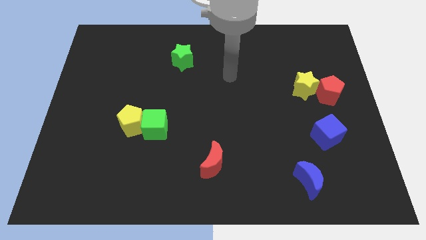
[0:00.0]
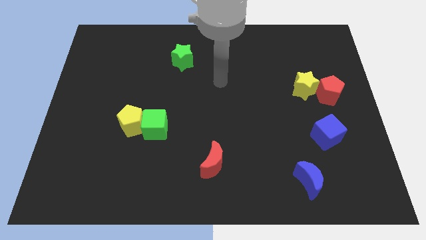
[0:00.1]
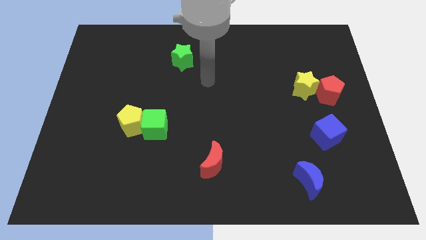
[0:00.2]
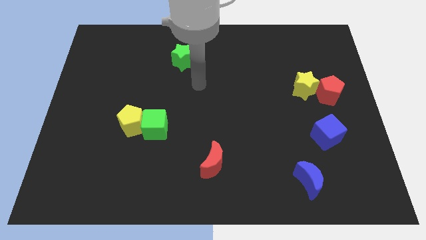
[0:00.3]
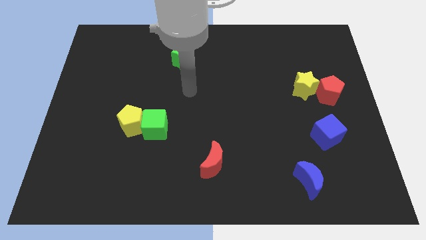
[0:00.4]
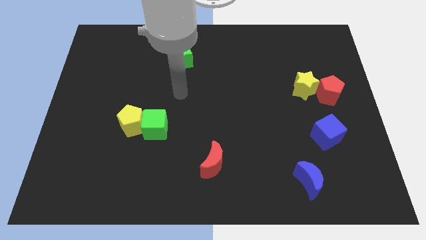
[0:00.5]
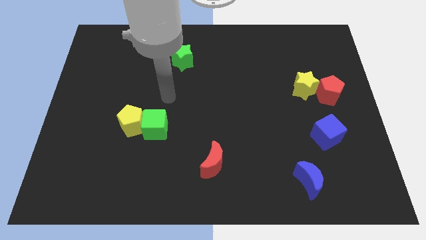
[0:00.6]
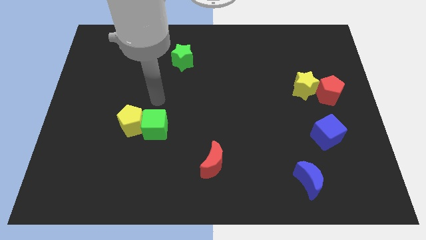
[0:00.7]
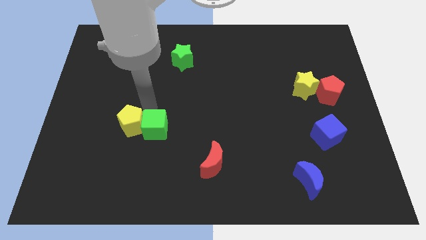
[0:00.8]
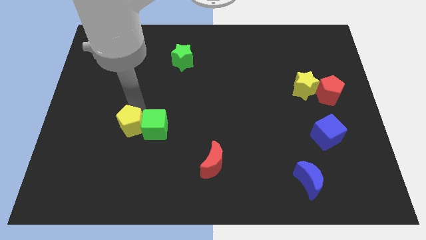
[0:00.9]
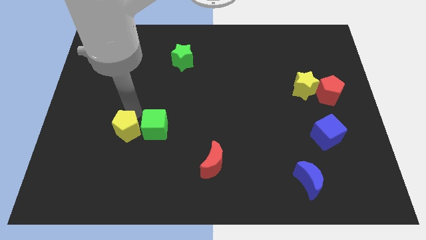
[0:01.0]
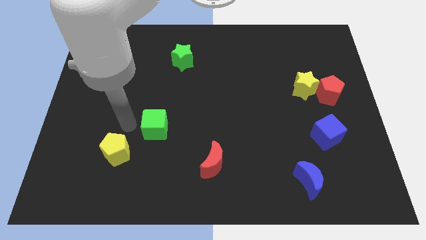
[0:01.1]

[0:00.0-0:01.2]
separate the green cube from the yellow pentagon

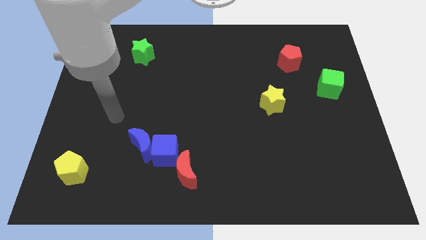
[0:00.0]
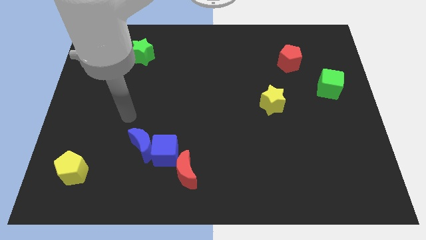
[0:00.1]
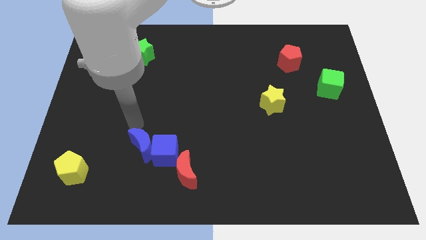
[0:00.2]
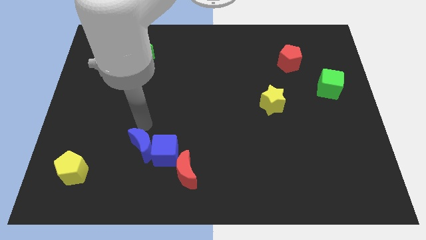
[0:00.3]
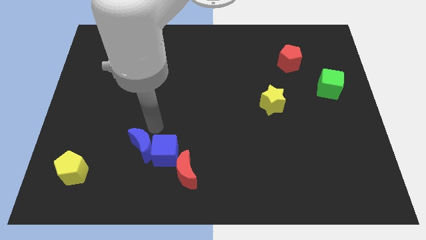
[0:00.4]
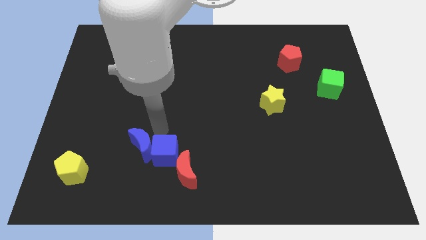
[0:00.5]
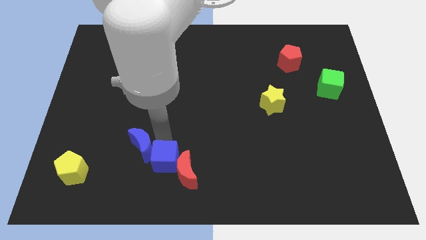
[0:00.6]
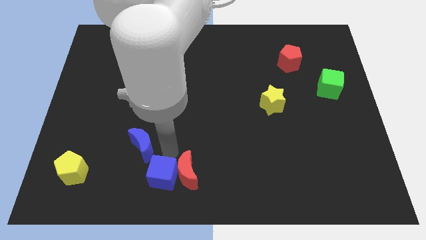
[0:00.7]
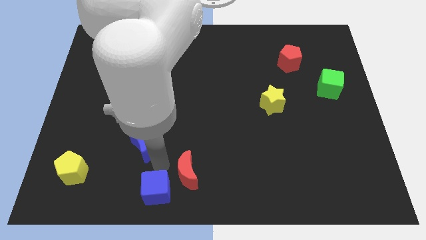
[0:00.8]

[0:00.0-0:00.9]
separate the blue moon from the blue cube

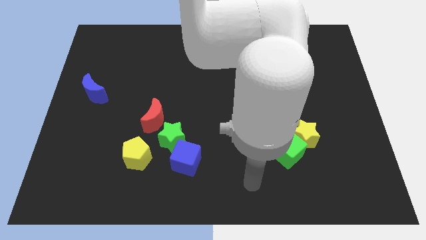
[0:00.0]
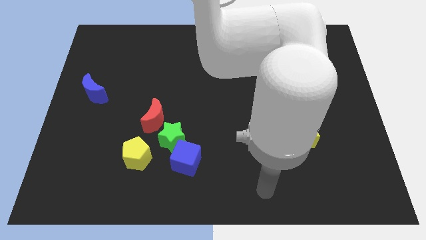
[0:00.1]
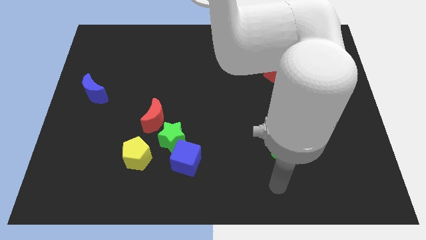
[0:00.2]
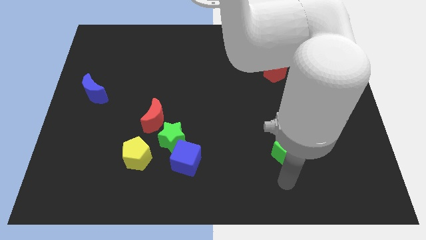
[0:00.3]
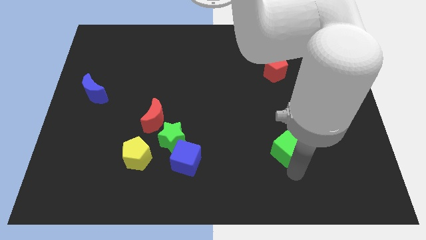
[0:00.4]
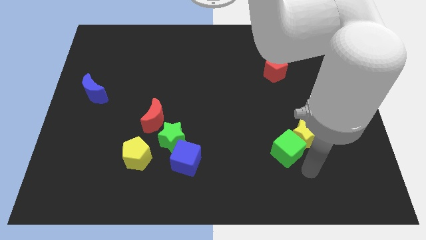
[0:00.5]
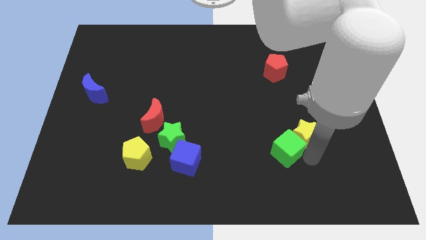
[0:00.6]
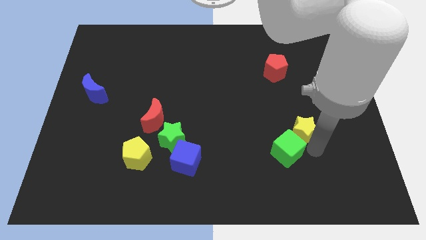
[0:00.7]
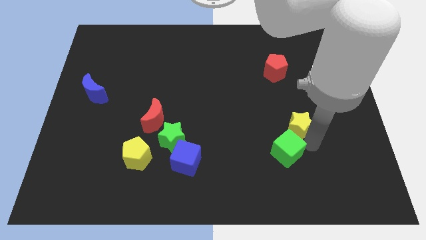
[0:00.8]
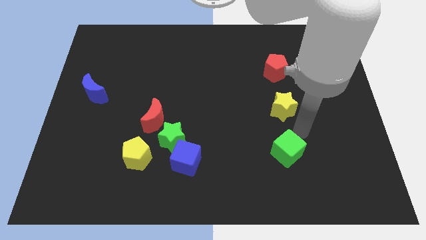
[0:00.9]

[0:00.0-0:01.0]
pull the green cube apart from the yellow star

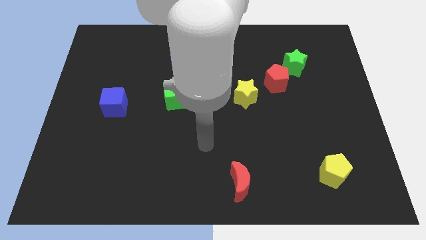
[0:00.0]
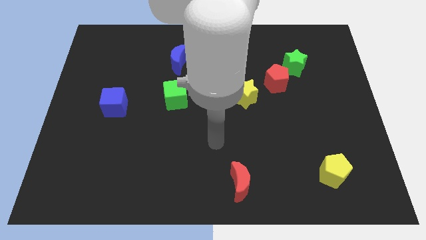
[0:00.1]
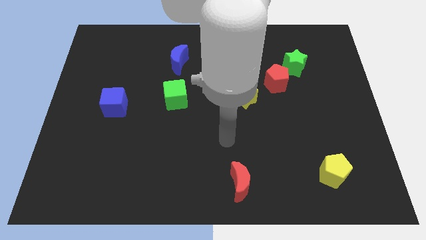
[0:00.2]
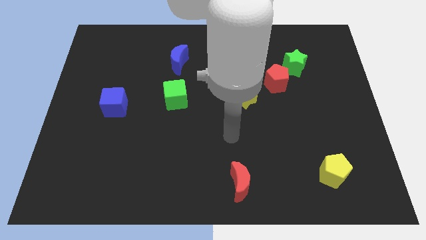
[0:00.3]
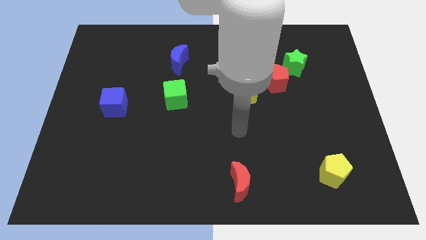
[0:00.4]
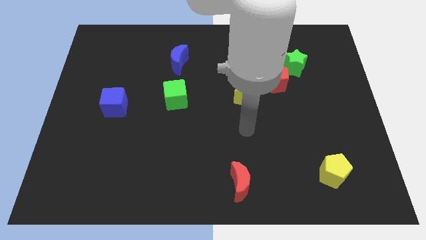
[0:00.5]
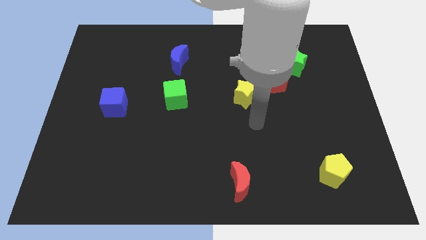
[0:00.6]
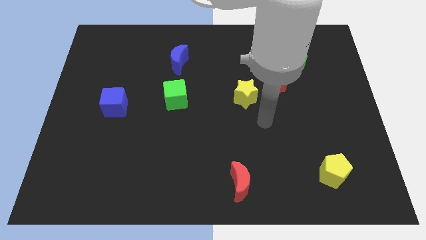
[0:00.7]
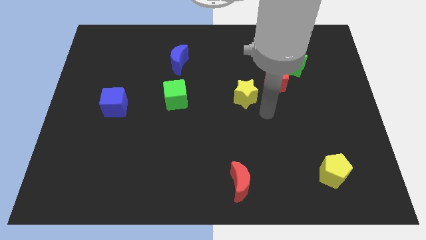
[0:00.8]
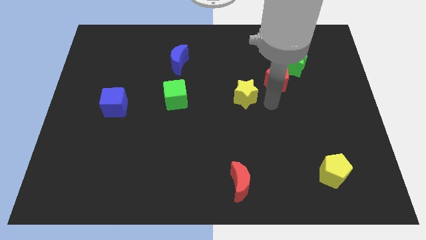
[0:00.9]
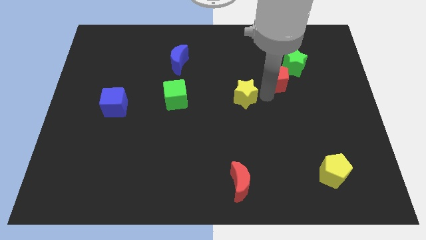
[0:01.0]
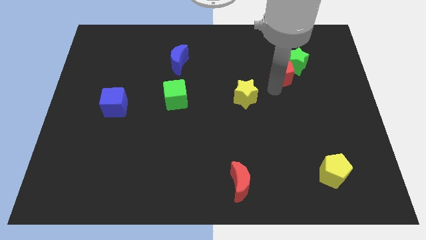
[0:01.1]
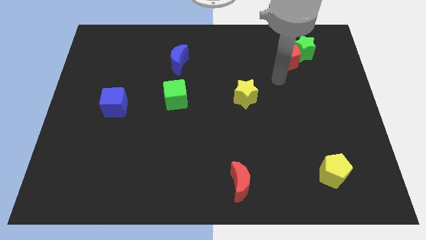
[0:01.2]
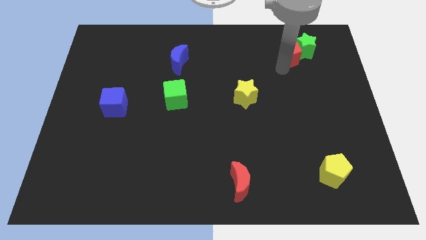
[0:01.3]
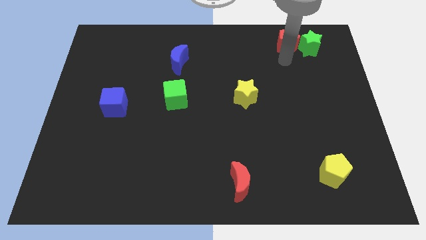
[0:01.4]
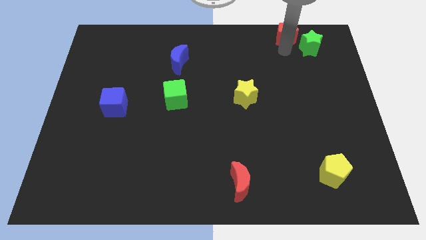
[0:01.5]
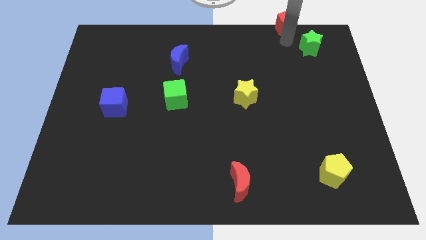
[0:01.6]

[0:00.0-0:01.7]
pull the green star apart from the red pentagon

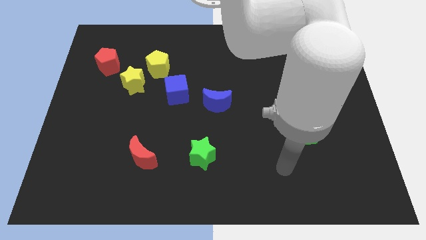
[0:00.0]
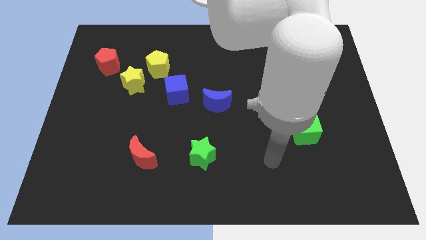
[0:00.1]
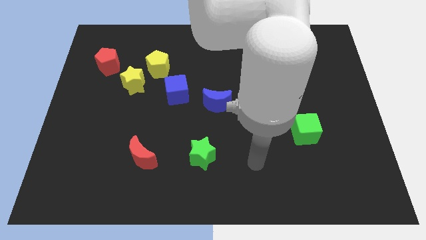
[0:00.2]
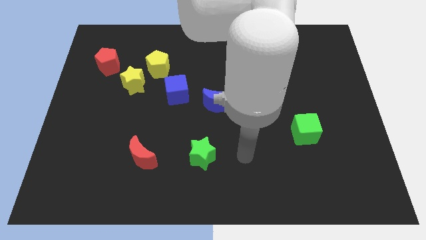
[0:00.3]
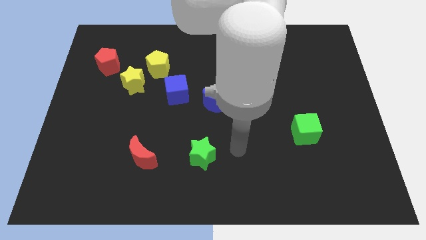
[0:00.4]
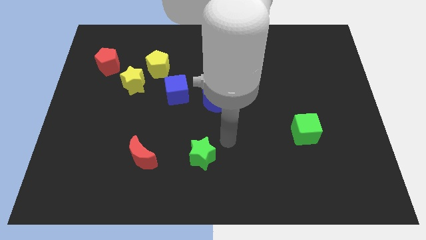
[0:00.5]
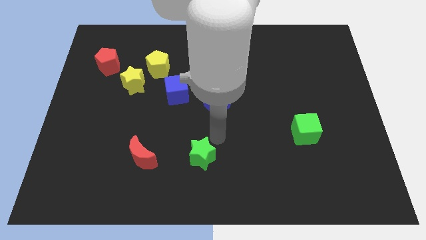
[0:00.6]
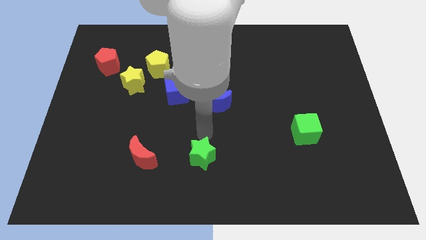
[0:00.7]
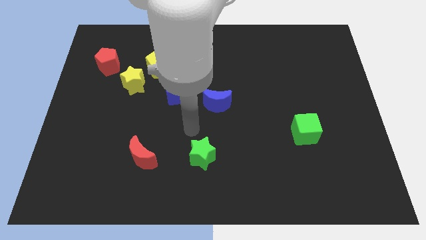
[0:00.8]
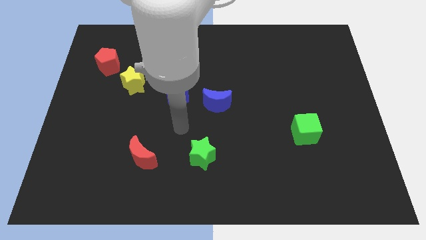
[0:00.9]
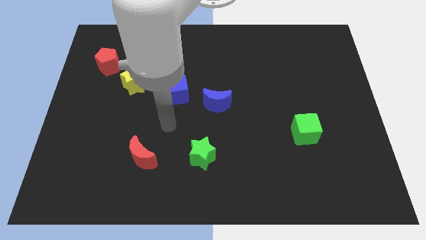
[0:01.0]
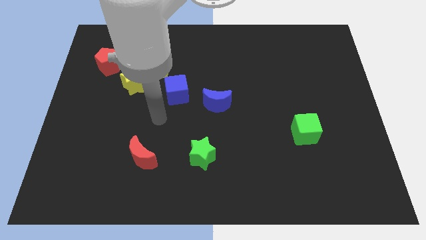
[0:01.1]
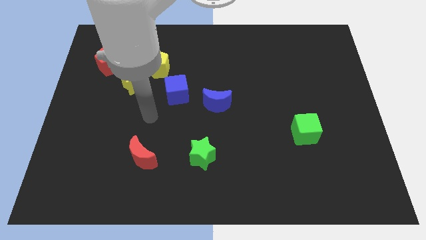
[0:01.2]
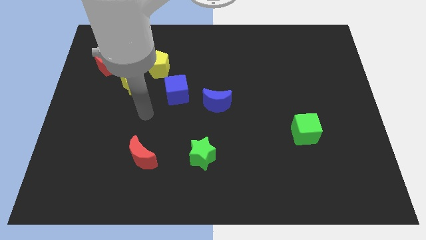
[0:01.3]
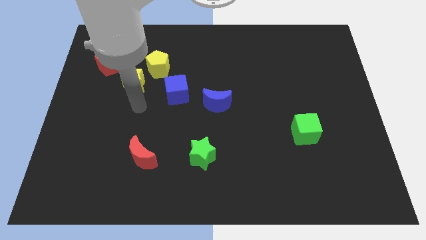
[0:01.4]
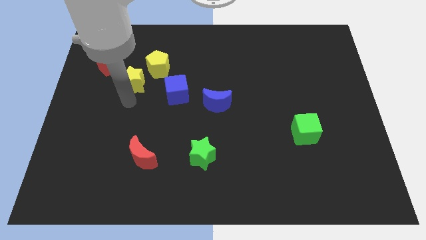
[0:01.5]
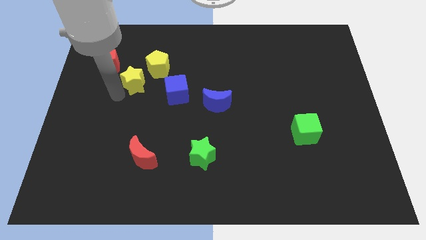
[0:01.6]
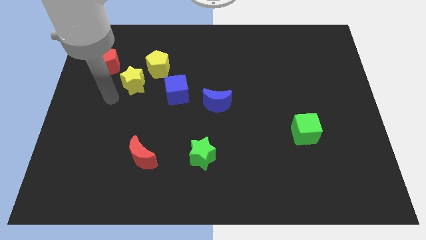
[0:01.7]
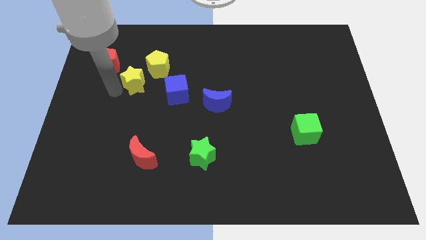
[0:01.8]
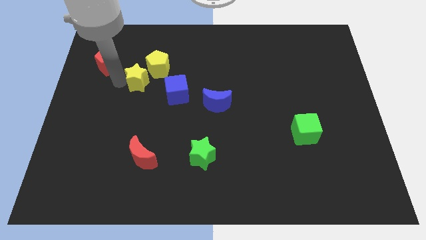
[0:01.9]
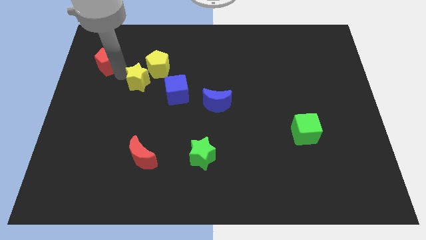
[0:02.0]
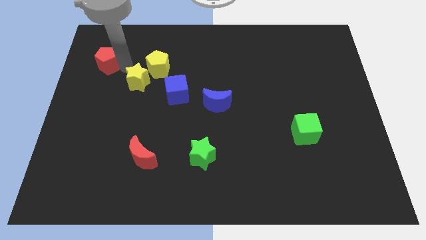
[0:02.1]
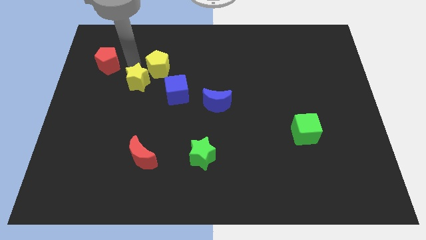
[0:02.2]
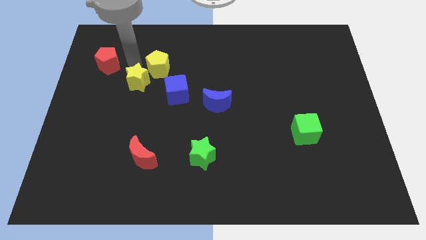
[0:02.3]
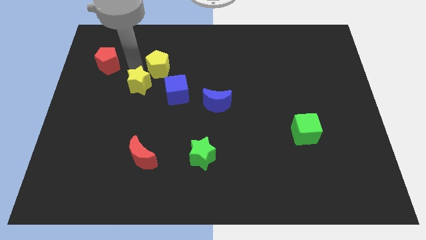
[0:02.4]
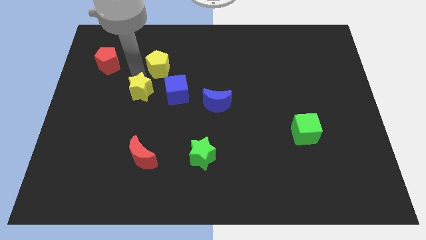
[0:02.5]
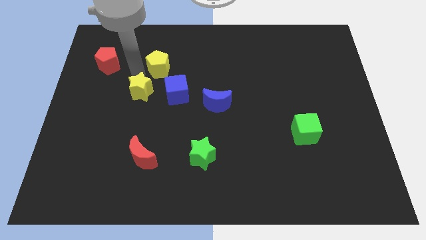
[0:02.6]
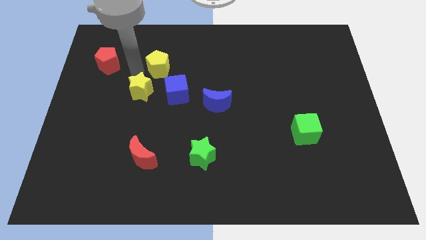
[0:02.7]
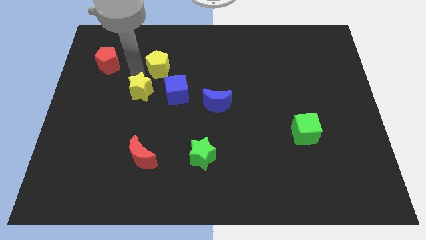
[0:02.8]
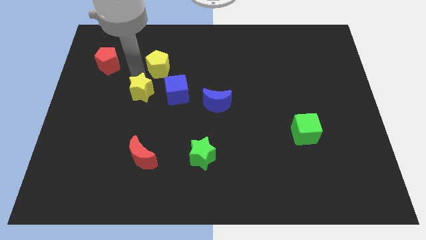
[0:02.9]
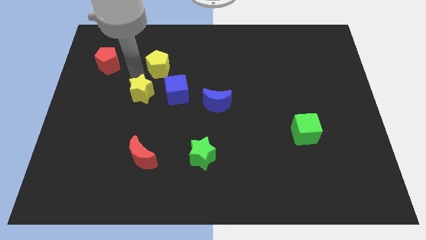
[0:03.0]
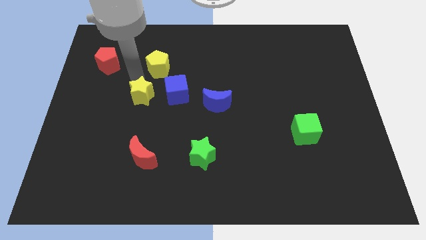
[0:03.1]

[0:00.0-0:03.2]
move the yellow star away from the yellow pentagon and red pentagon

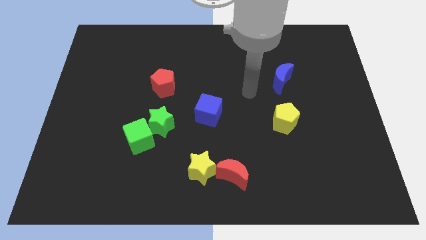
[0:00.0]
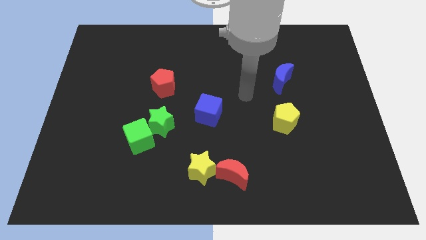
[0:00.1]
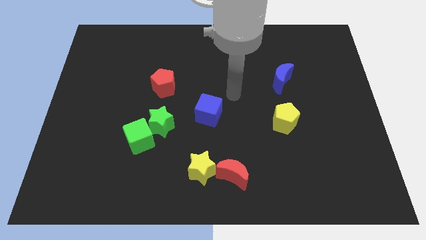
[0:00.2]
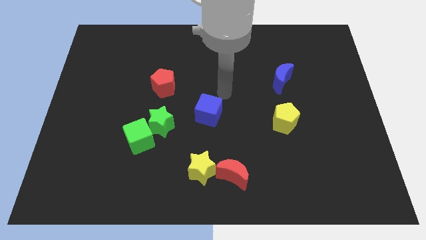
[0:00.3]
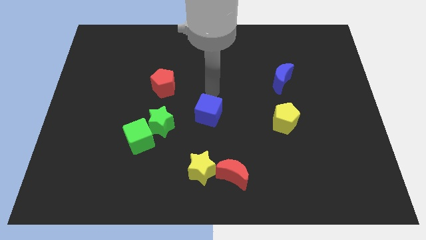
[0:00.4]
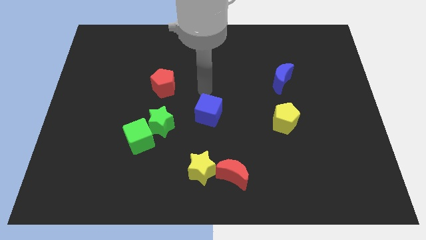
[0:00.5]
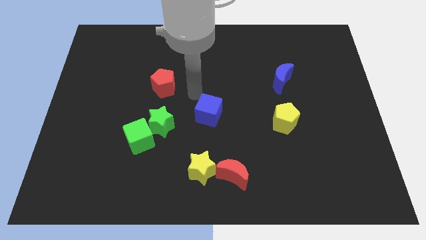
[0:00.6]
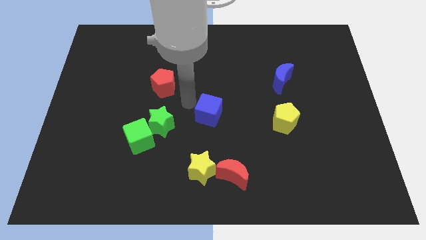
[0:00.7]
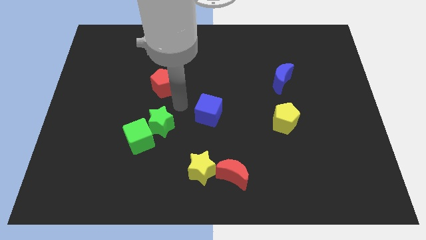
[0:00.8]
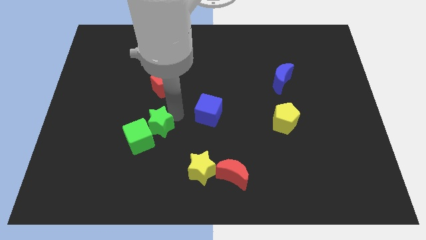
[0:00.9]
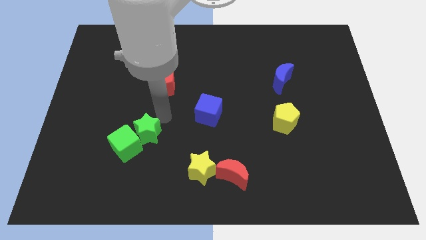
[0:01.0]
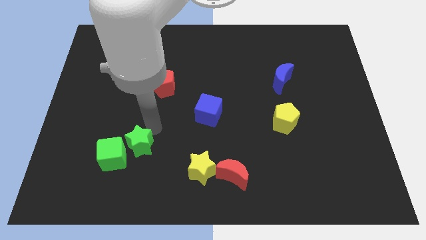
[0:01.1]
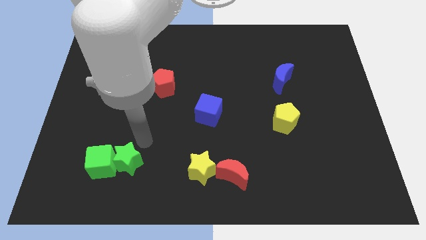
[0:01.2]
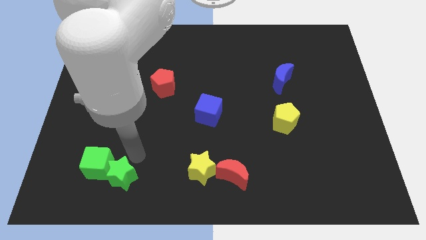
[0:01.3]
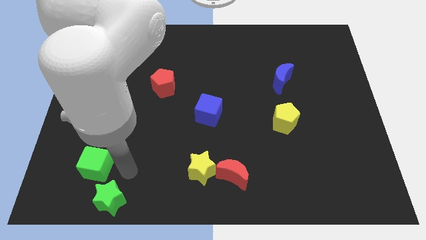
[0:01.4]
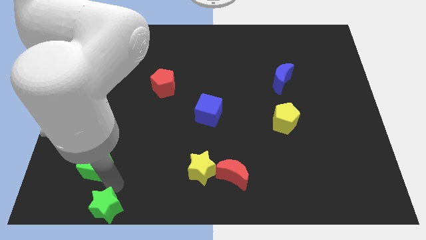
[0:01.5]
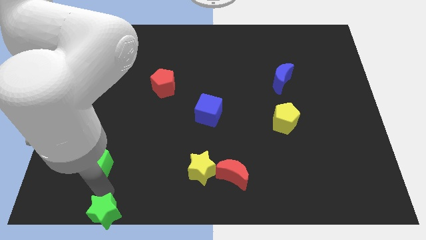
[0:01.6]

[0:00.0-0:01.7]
move the green cube away from the green star
